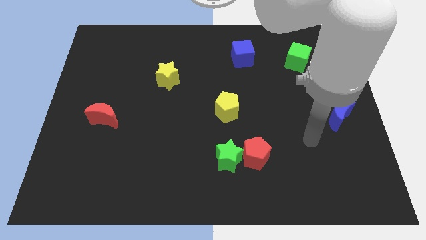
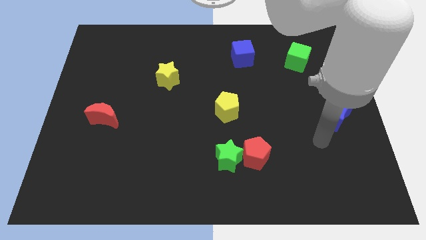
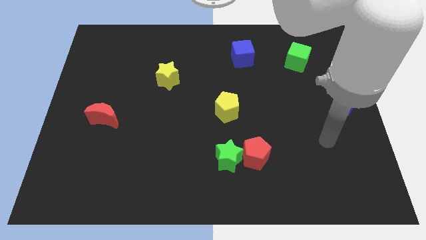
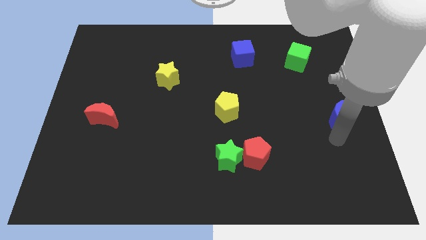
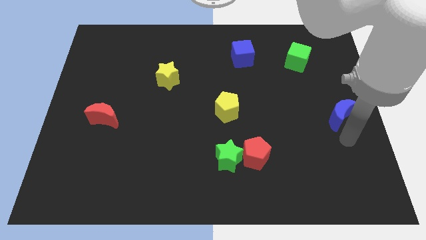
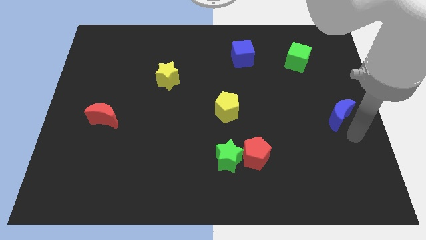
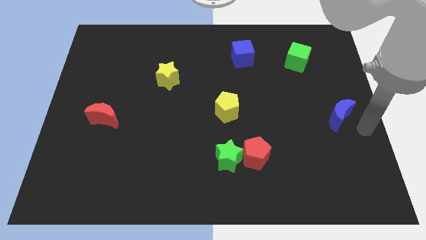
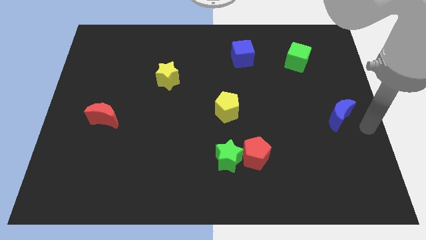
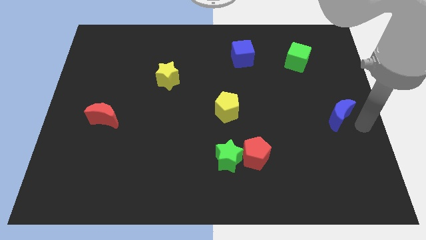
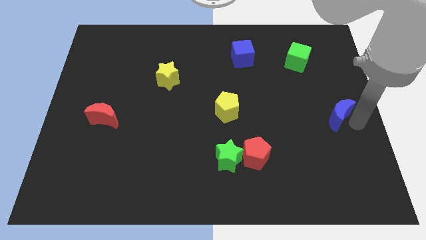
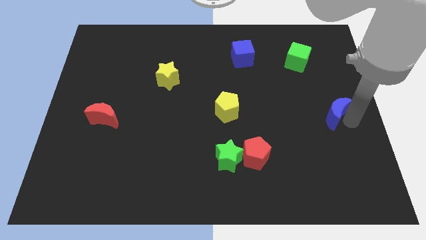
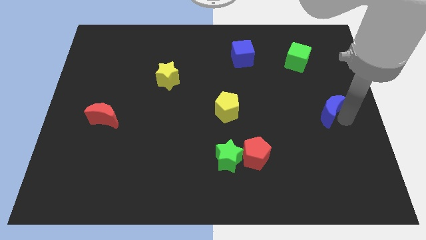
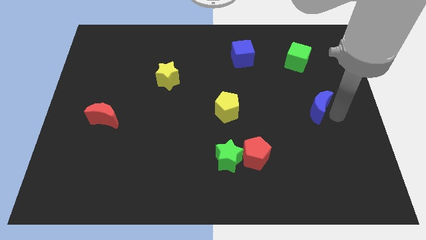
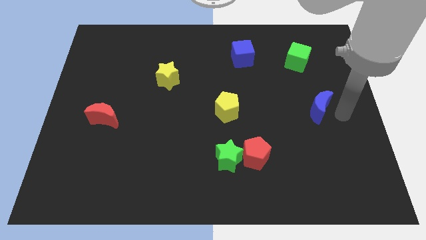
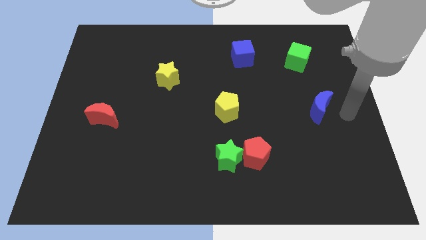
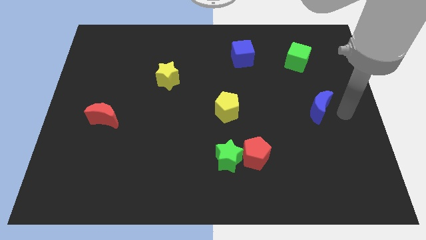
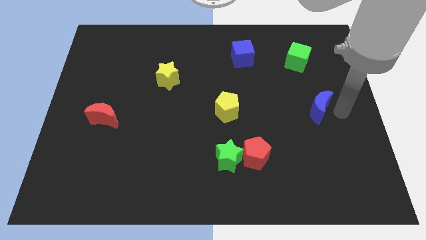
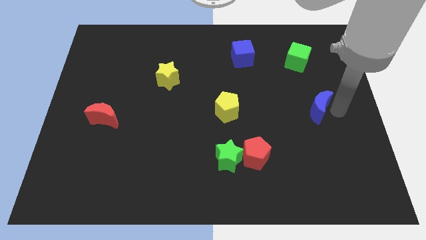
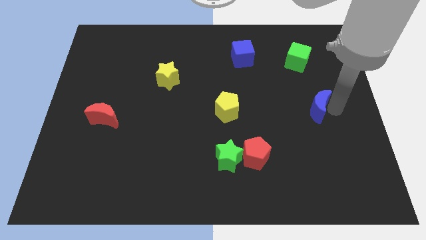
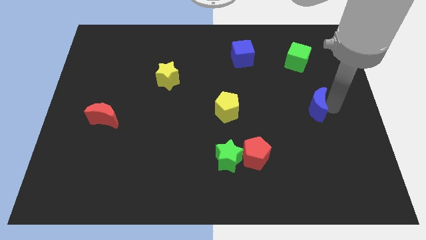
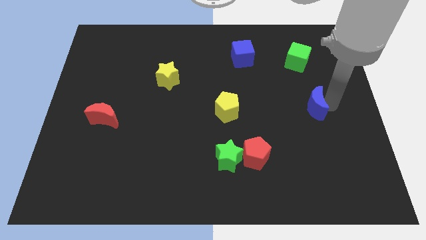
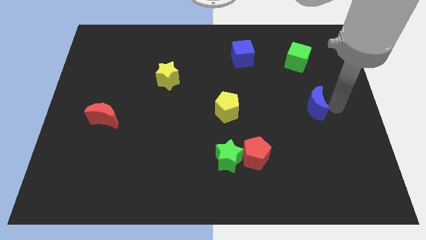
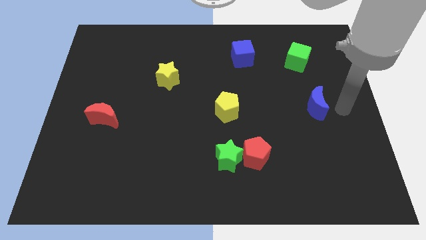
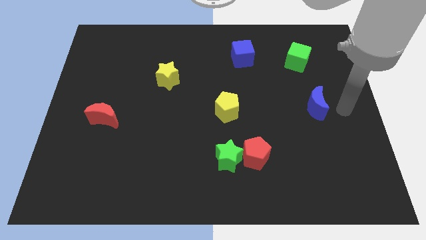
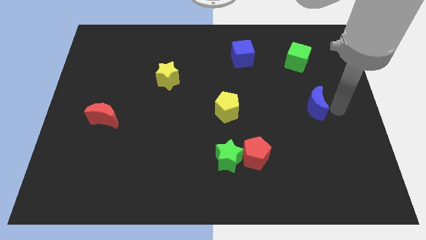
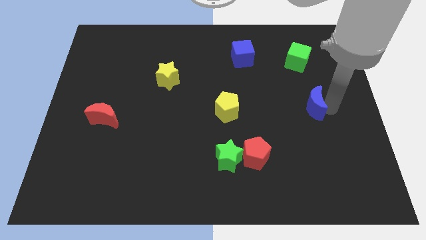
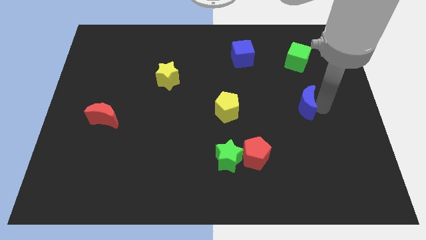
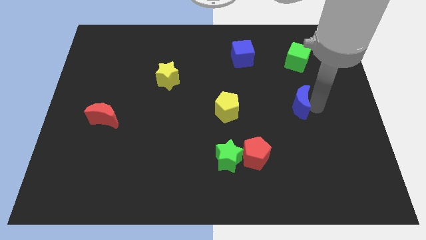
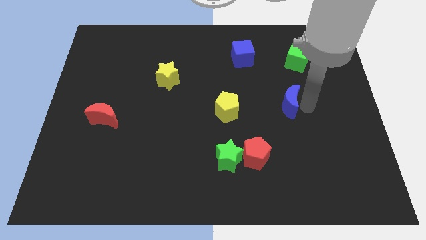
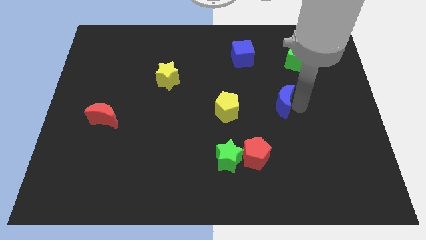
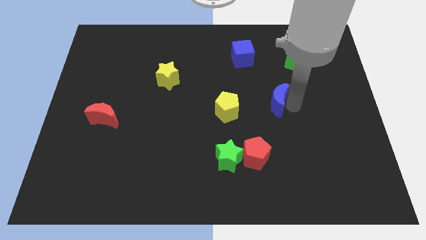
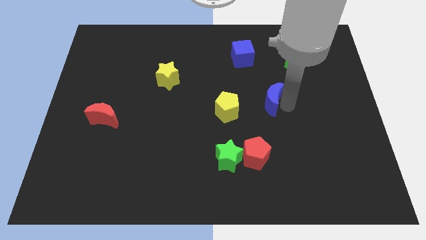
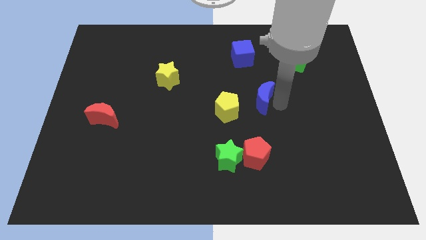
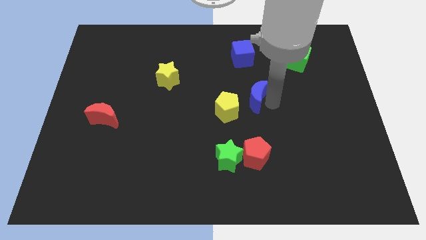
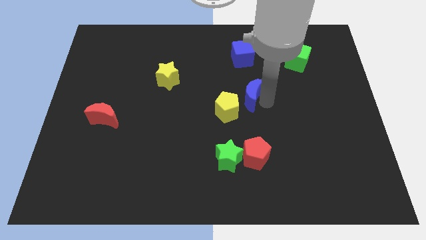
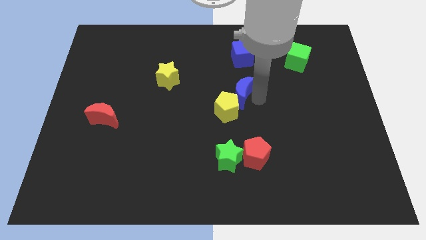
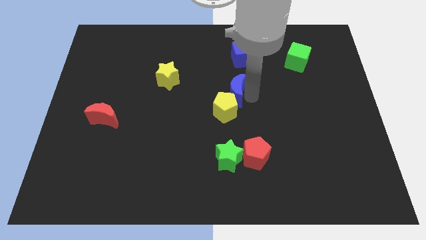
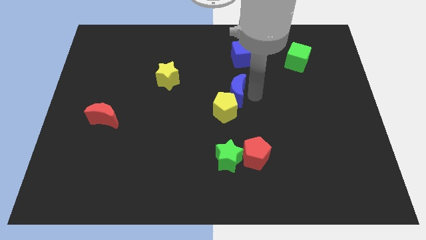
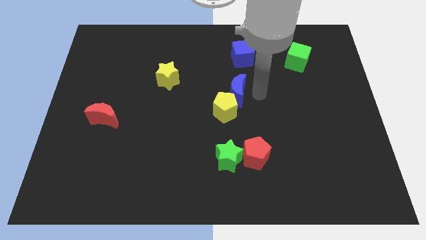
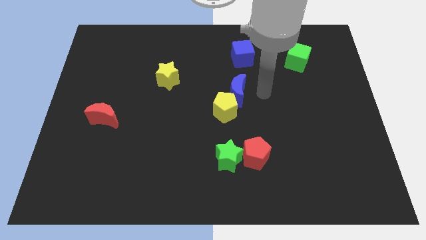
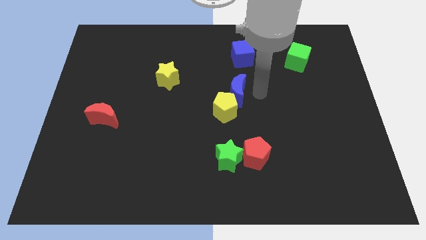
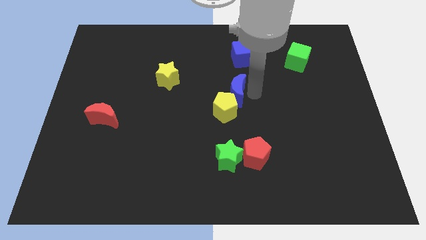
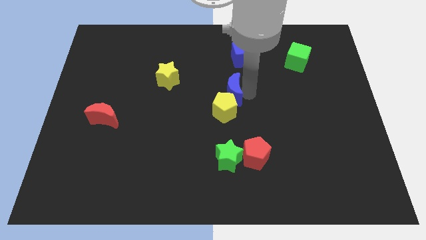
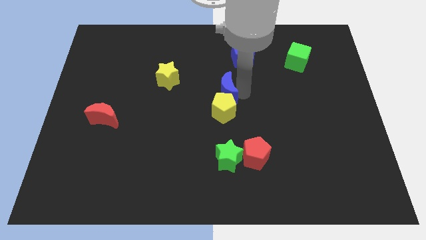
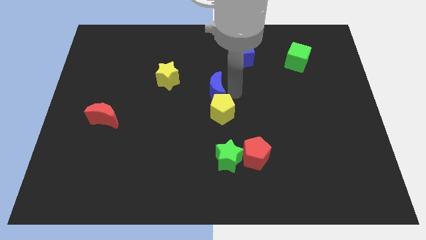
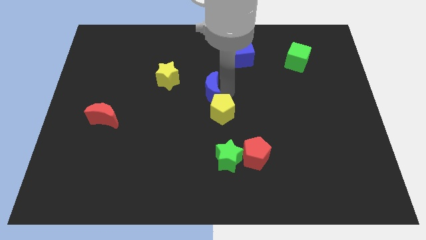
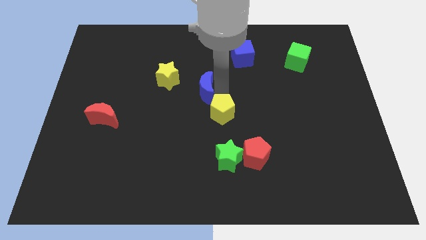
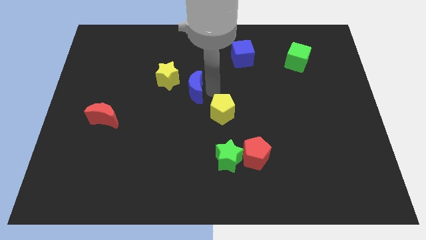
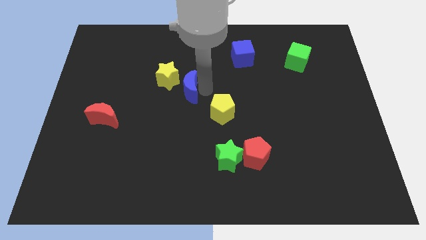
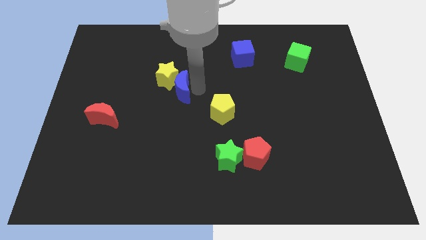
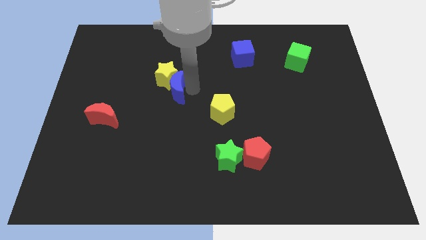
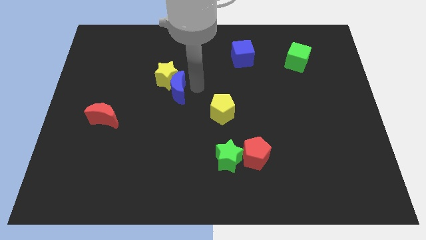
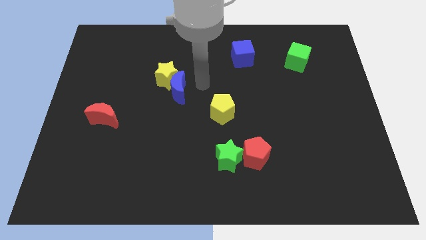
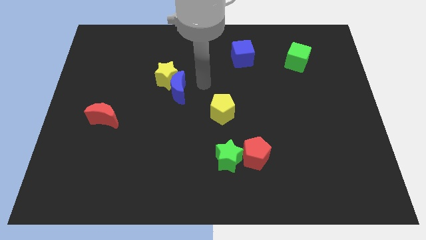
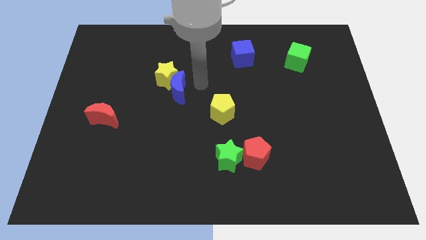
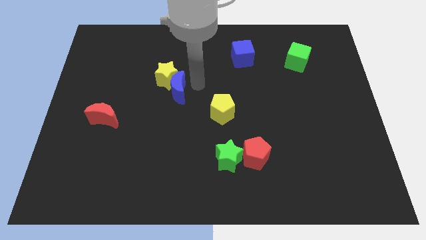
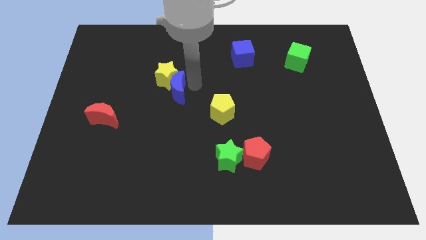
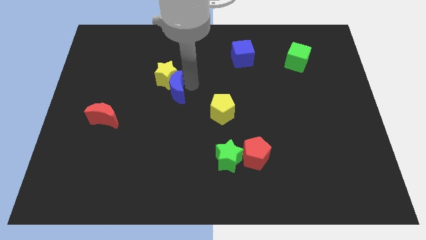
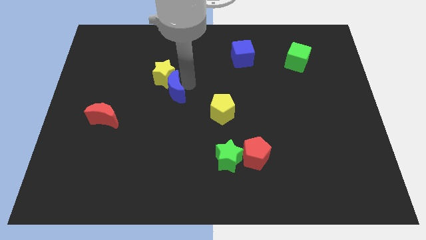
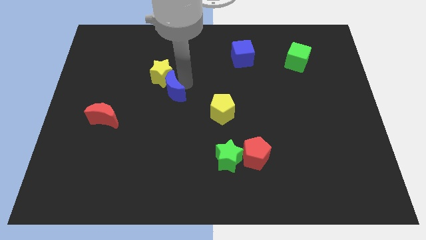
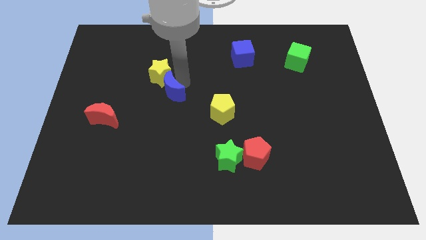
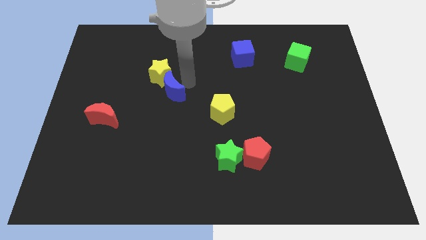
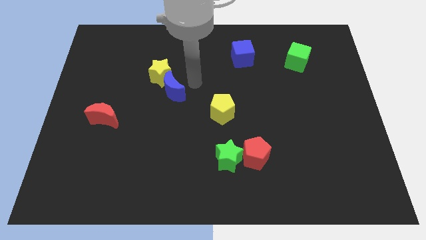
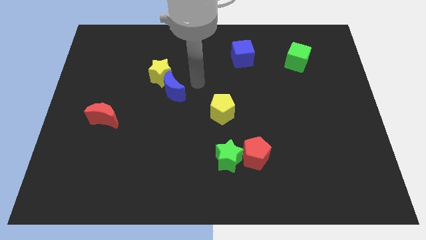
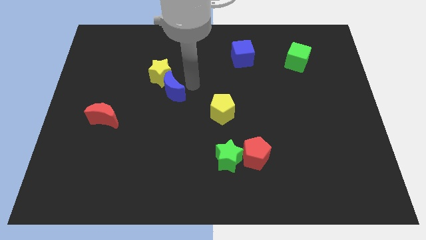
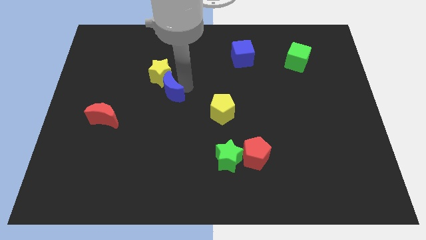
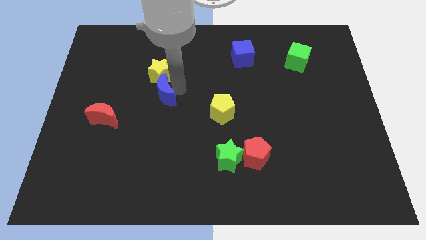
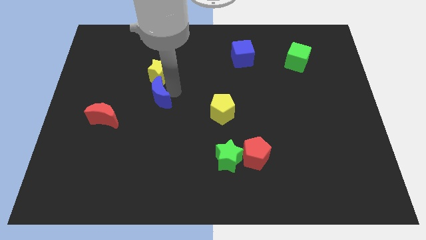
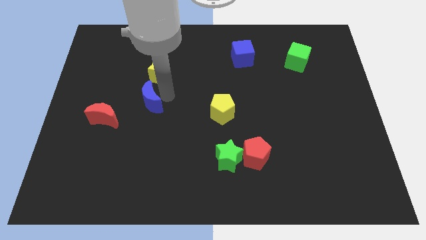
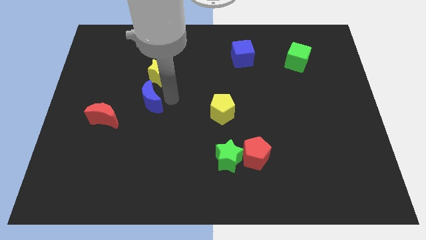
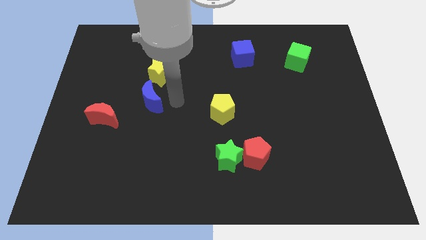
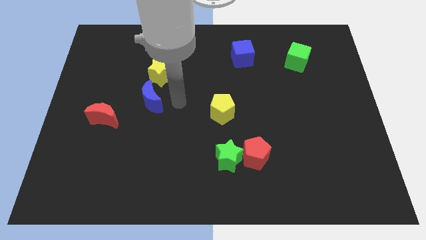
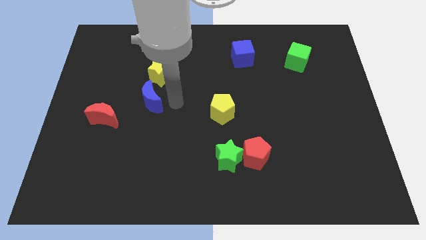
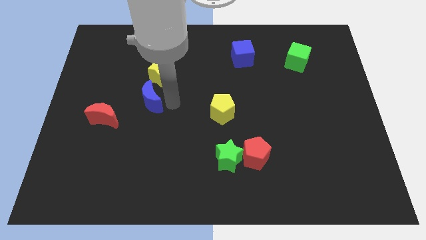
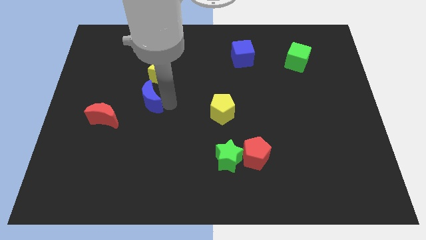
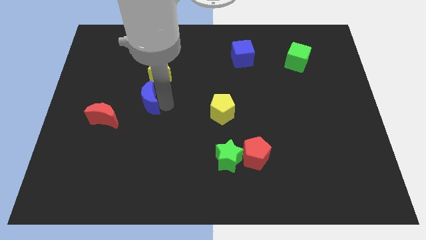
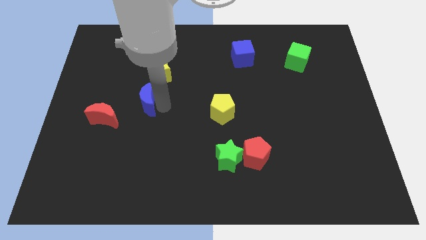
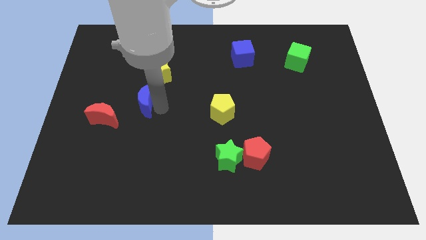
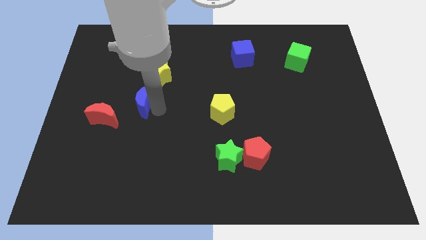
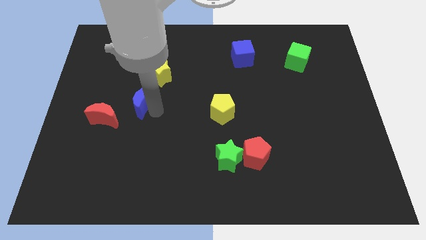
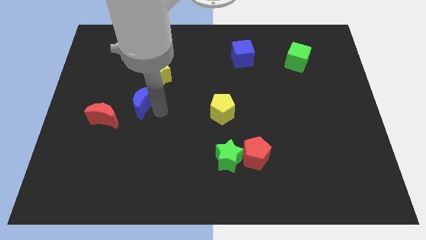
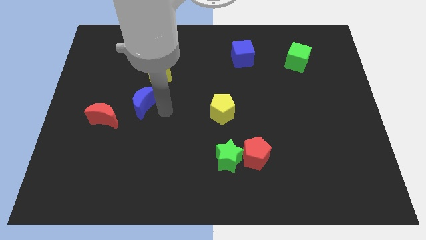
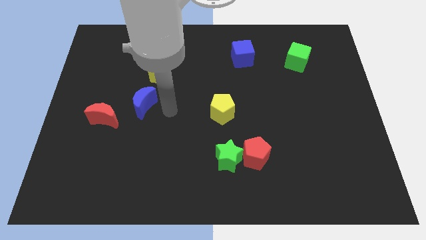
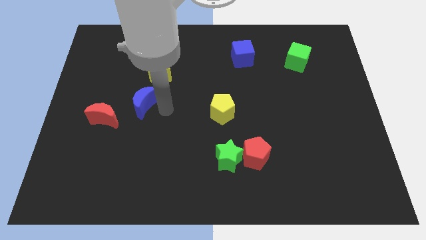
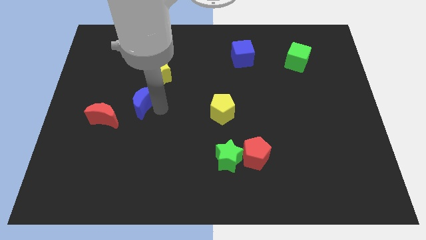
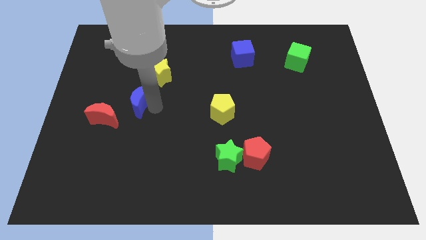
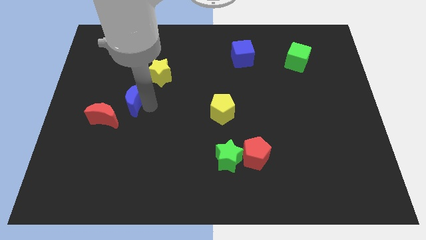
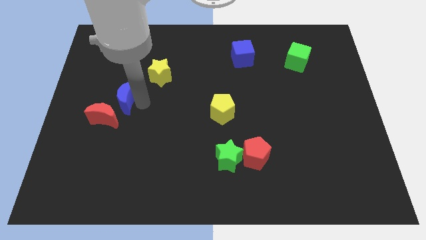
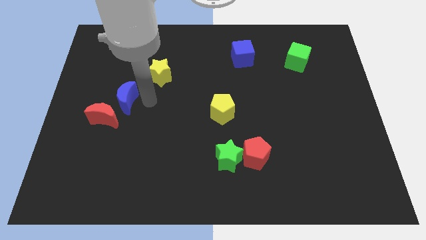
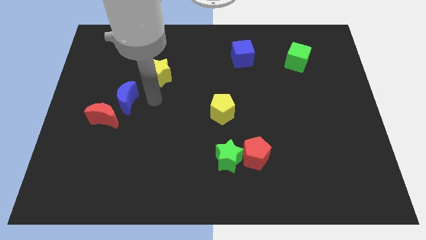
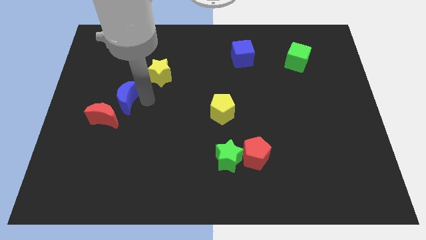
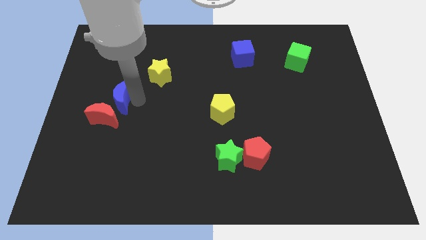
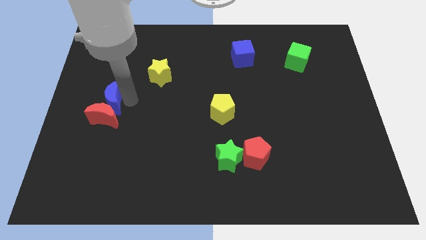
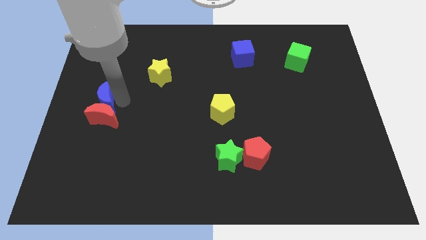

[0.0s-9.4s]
move the blue moon to the left side of the board
